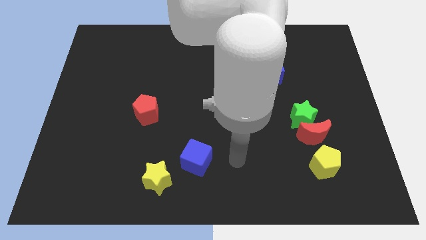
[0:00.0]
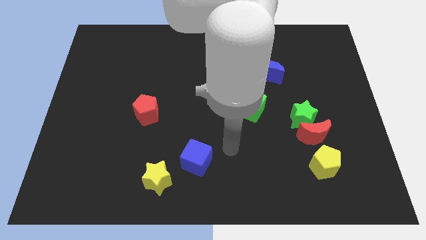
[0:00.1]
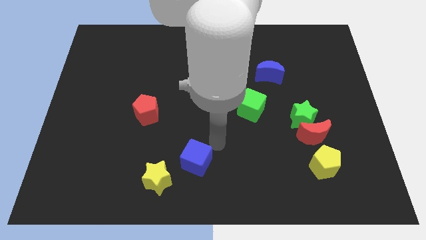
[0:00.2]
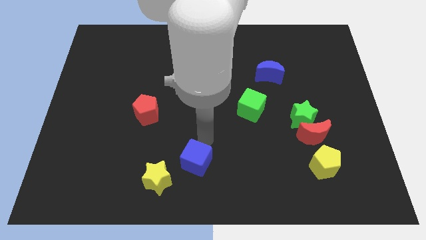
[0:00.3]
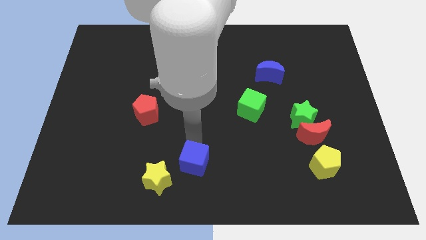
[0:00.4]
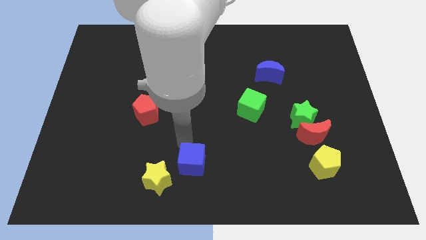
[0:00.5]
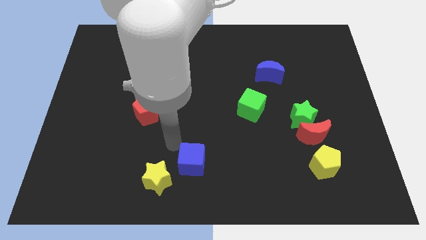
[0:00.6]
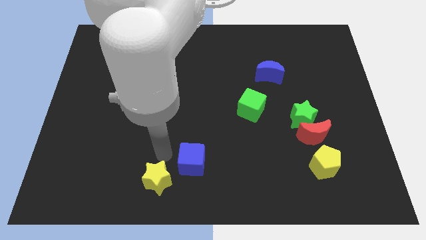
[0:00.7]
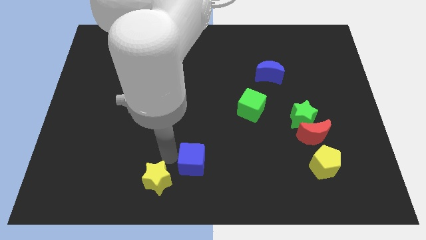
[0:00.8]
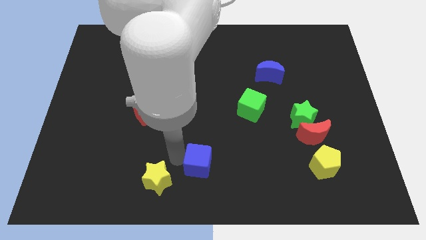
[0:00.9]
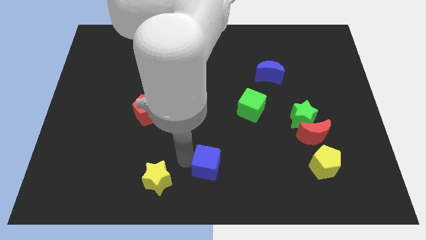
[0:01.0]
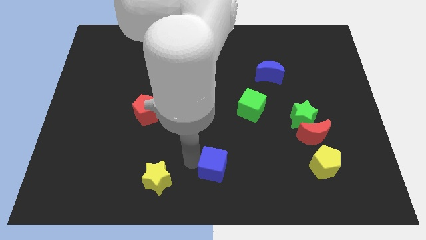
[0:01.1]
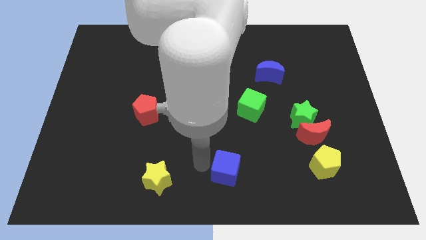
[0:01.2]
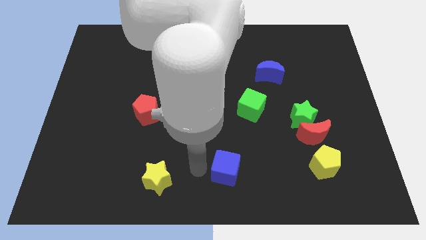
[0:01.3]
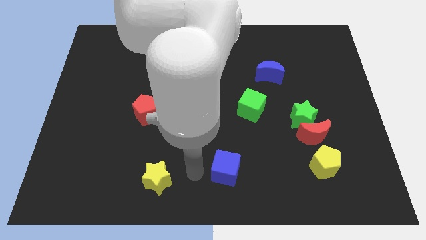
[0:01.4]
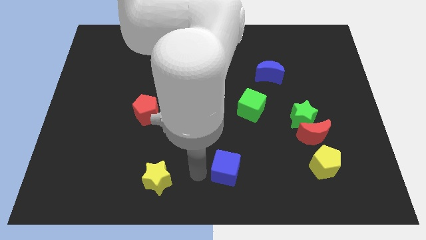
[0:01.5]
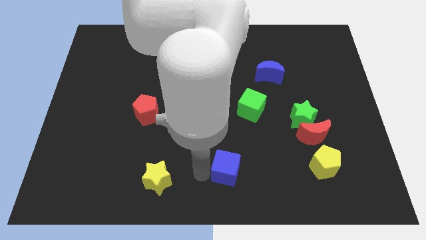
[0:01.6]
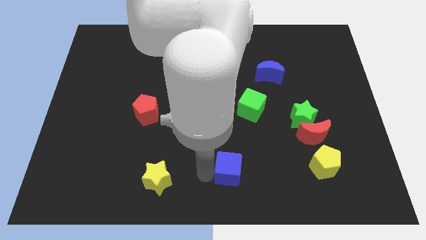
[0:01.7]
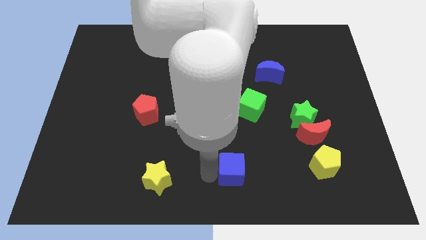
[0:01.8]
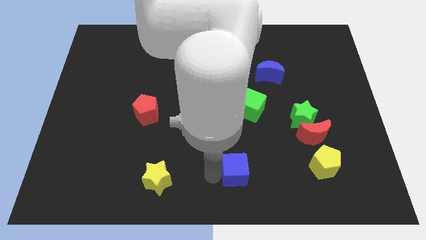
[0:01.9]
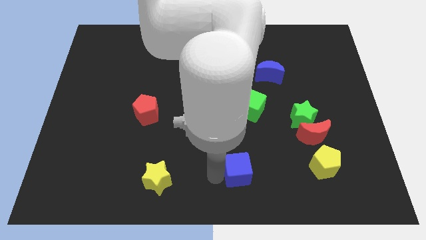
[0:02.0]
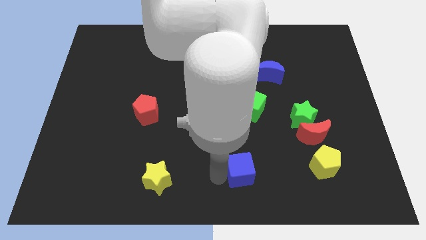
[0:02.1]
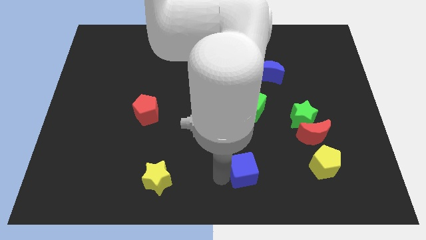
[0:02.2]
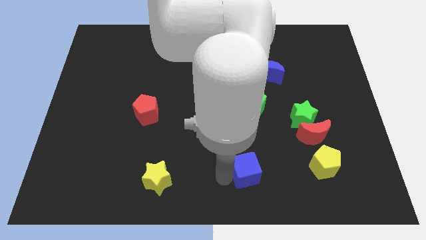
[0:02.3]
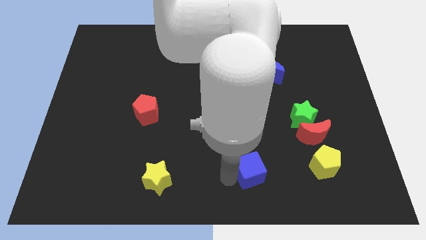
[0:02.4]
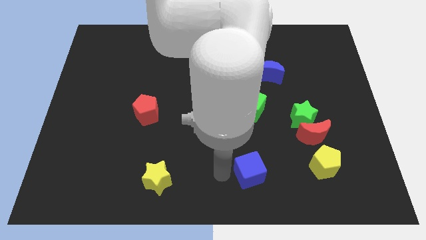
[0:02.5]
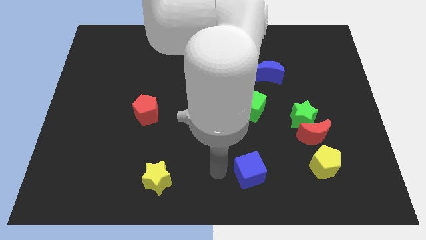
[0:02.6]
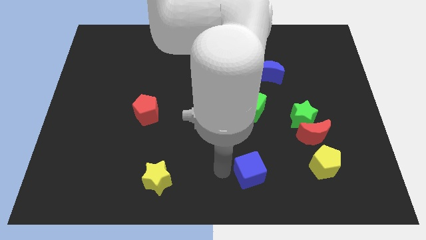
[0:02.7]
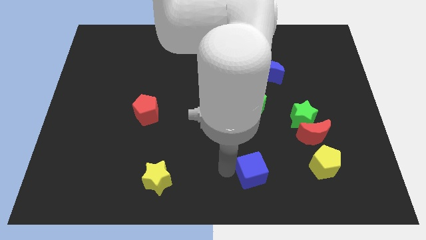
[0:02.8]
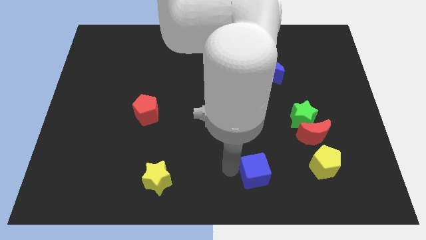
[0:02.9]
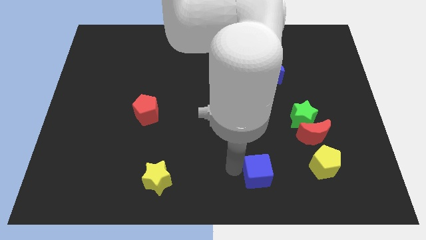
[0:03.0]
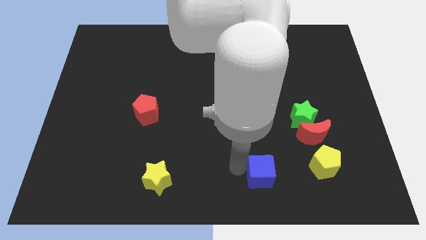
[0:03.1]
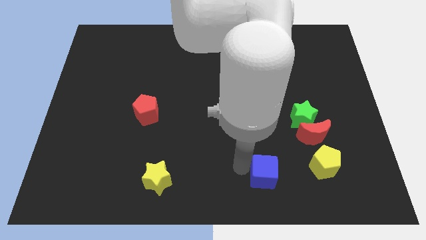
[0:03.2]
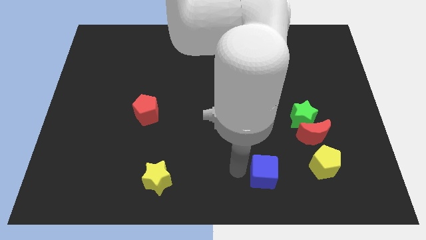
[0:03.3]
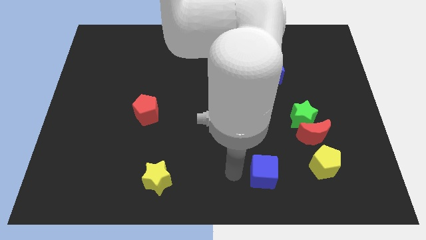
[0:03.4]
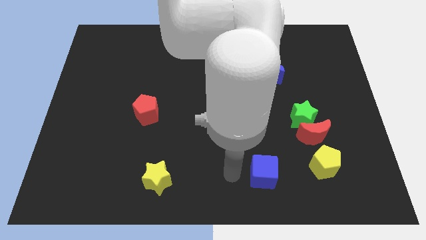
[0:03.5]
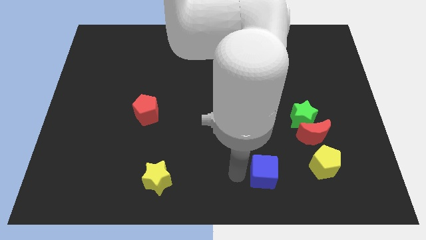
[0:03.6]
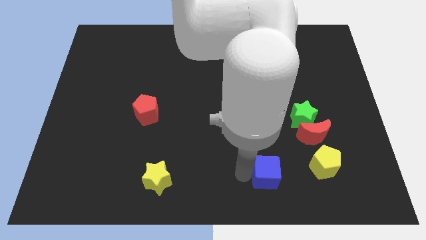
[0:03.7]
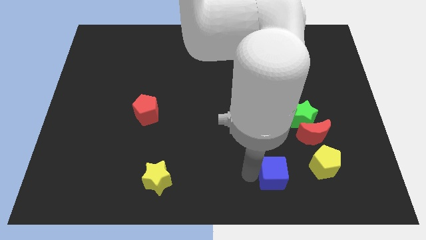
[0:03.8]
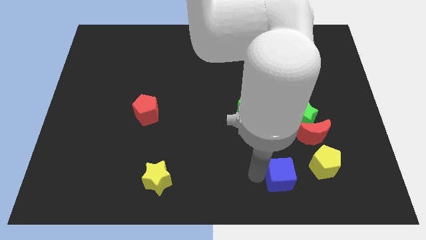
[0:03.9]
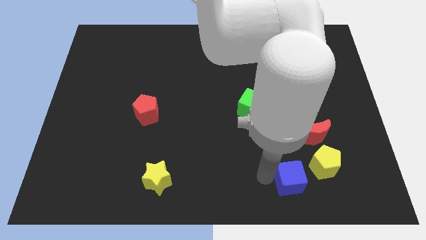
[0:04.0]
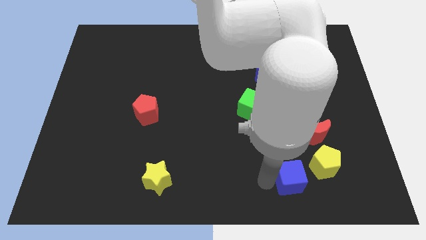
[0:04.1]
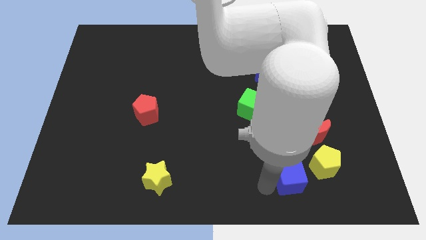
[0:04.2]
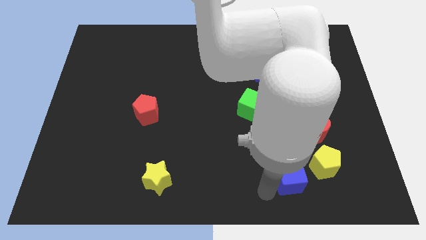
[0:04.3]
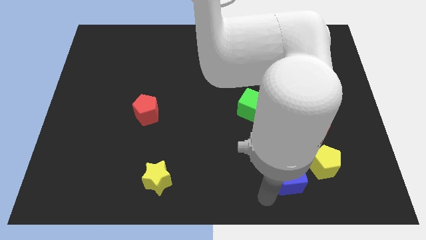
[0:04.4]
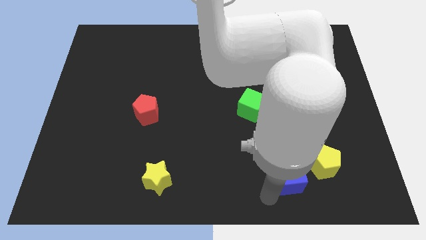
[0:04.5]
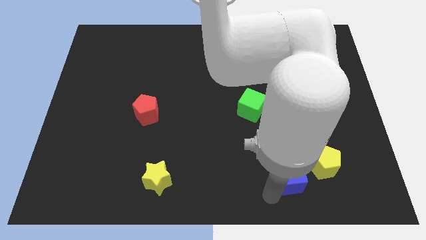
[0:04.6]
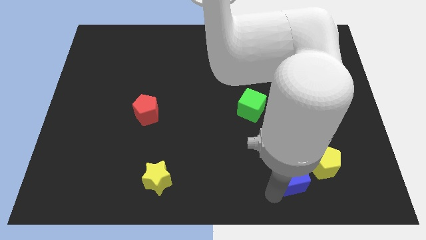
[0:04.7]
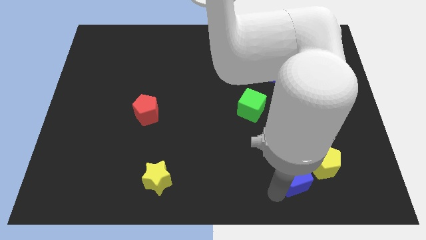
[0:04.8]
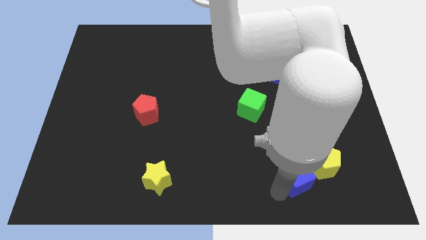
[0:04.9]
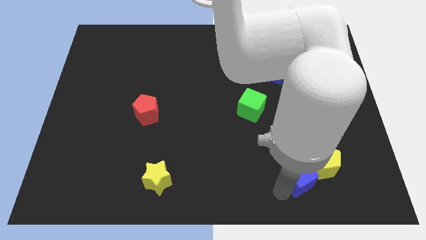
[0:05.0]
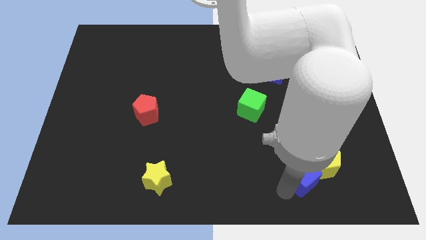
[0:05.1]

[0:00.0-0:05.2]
push the blue cube towards the yellow pentagon

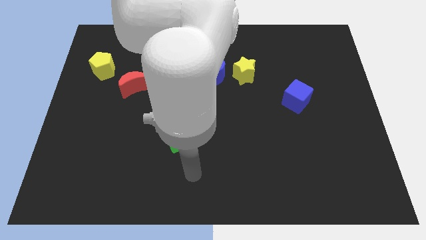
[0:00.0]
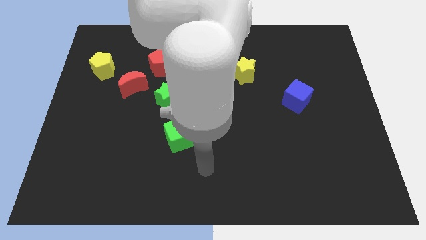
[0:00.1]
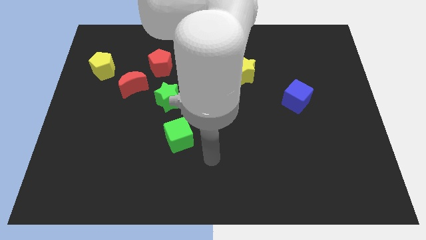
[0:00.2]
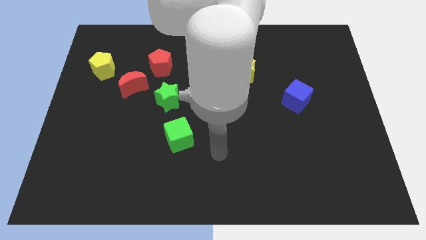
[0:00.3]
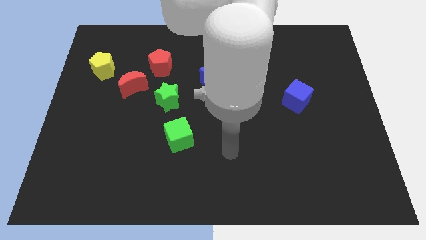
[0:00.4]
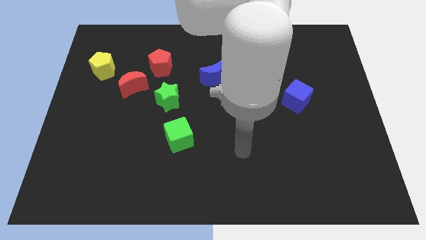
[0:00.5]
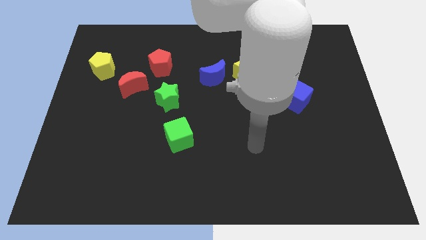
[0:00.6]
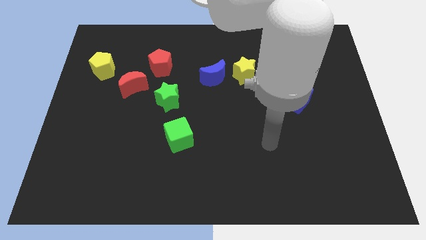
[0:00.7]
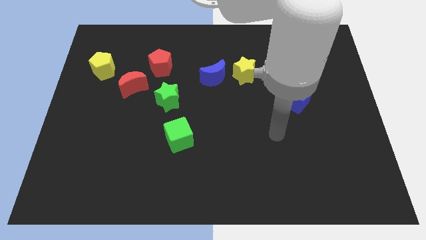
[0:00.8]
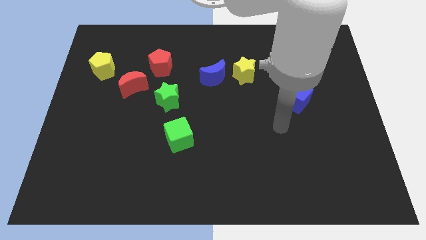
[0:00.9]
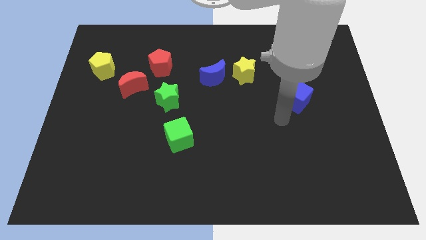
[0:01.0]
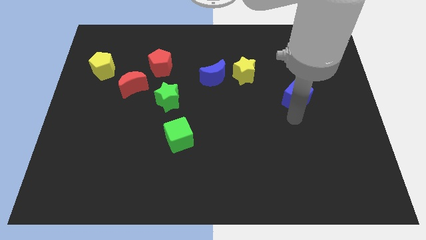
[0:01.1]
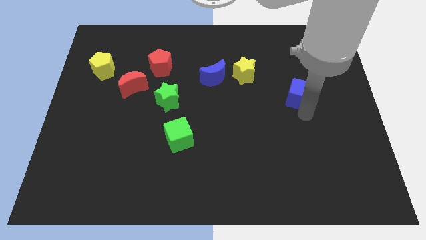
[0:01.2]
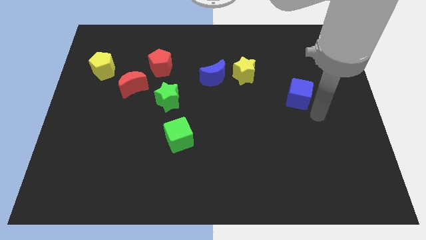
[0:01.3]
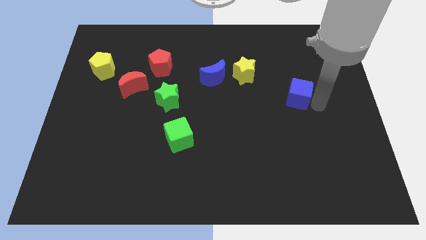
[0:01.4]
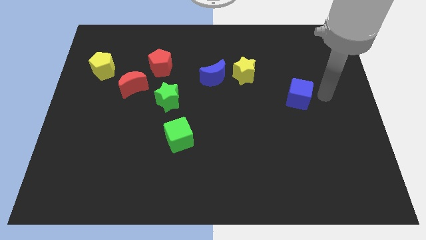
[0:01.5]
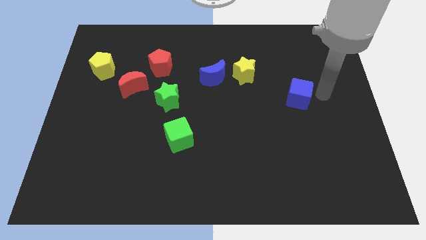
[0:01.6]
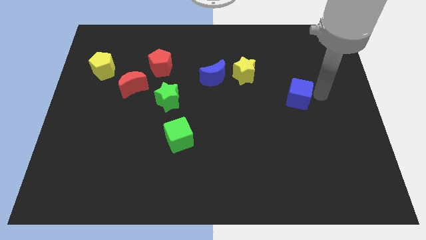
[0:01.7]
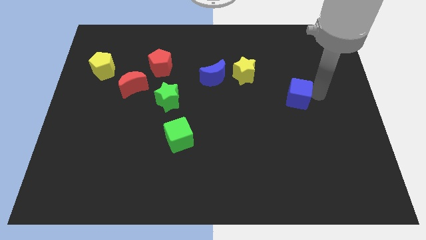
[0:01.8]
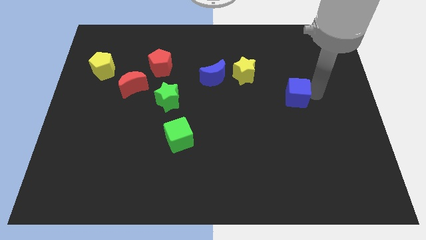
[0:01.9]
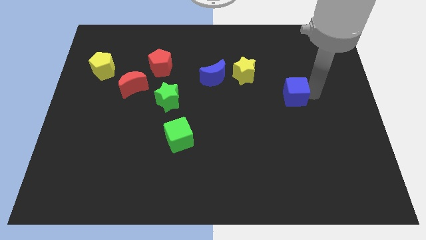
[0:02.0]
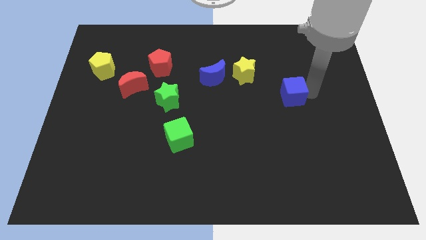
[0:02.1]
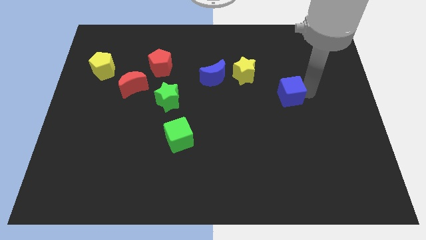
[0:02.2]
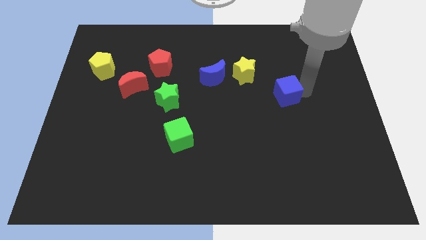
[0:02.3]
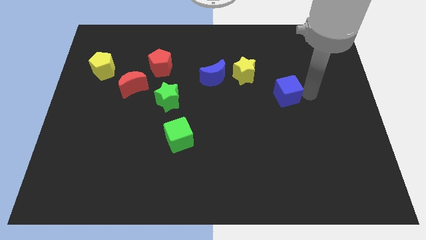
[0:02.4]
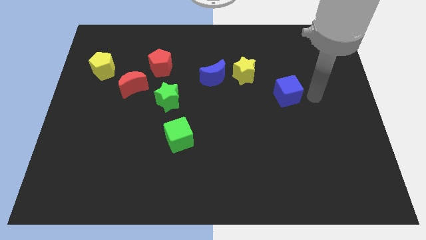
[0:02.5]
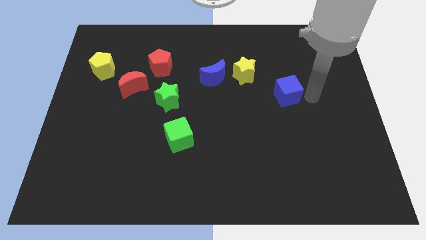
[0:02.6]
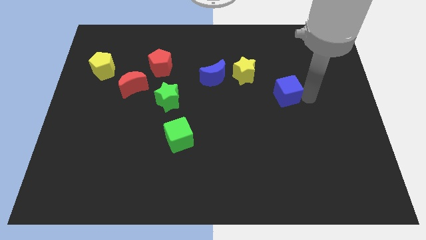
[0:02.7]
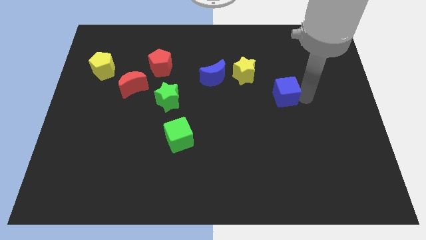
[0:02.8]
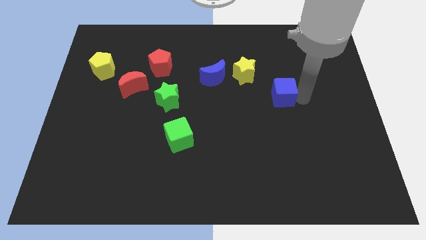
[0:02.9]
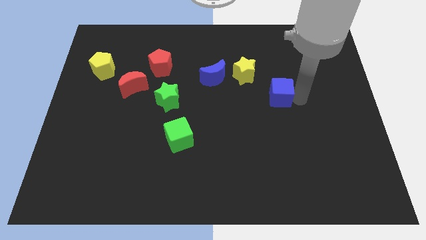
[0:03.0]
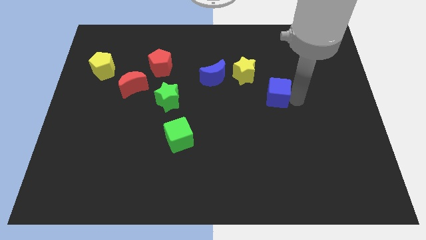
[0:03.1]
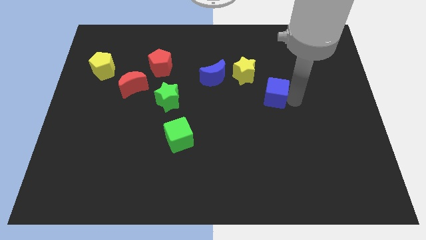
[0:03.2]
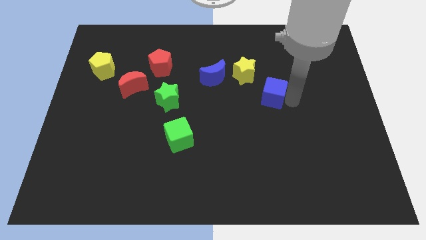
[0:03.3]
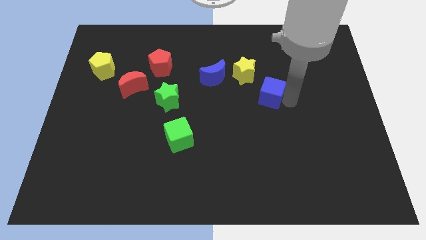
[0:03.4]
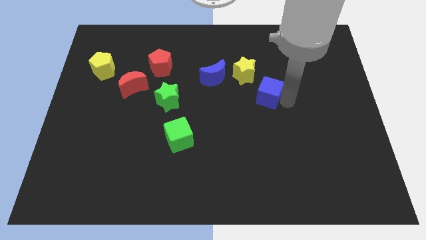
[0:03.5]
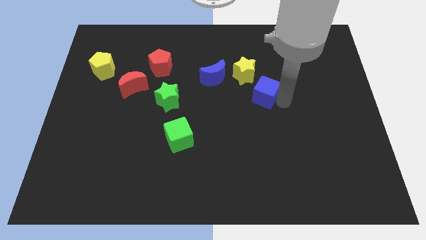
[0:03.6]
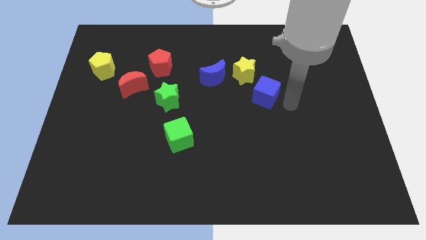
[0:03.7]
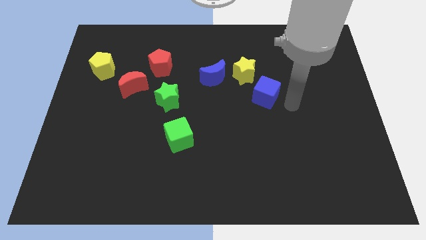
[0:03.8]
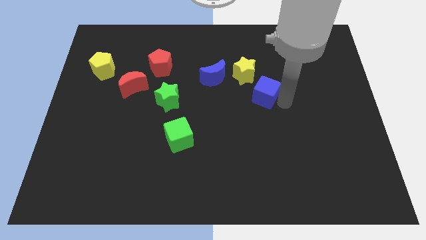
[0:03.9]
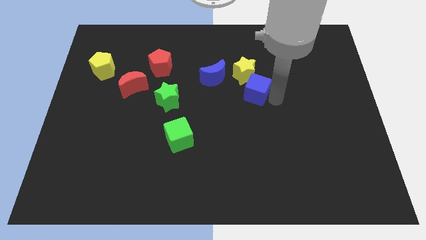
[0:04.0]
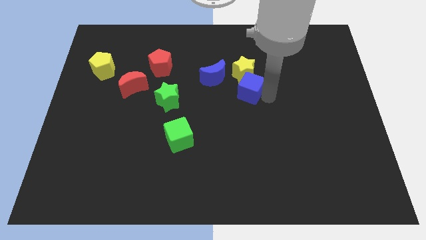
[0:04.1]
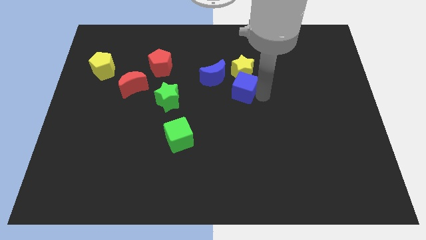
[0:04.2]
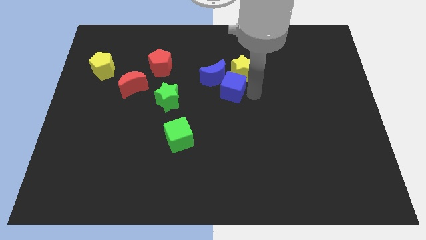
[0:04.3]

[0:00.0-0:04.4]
put the blue cube close to the blue moon
